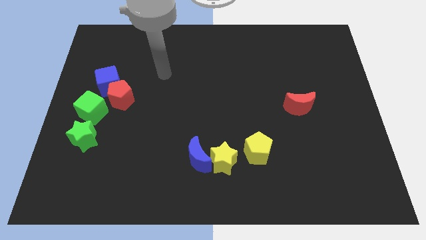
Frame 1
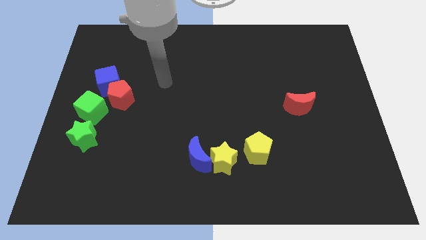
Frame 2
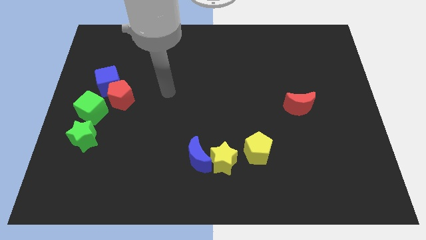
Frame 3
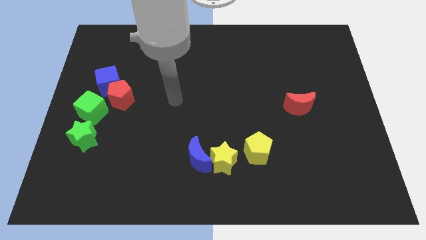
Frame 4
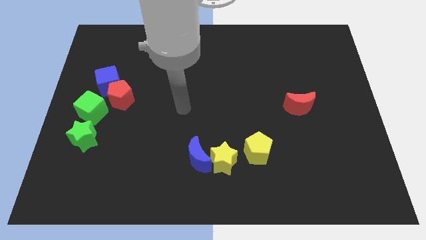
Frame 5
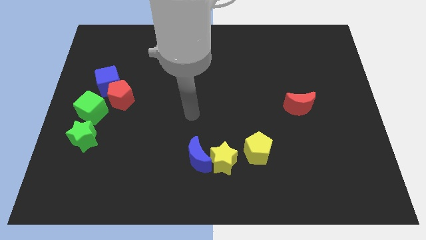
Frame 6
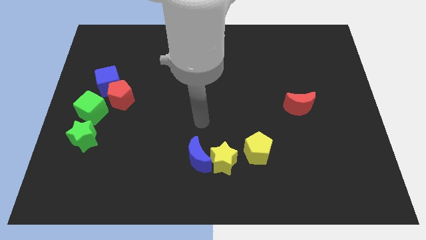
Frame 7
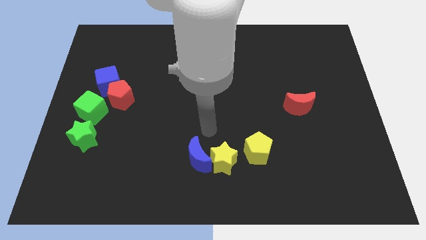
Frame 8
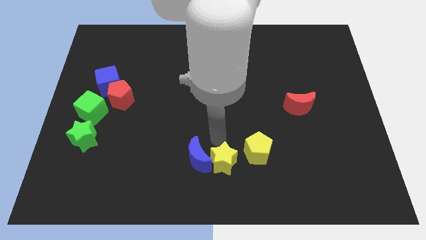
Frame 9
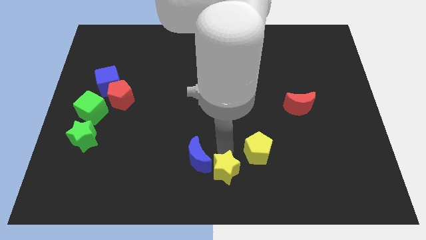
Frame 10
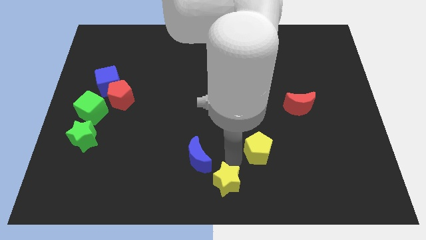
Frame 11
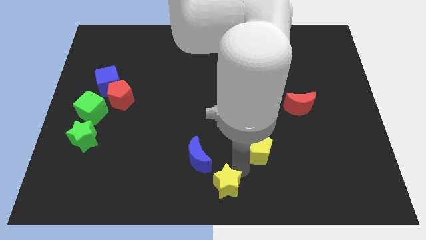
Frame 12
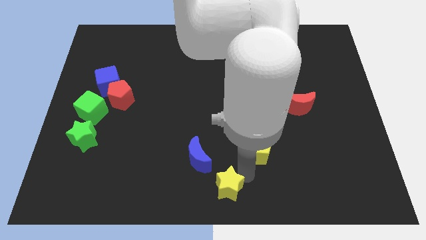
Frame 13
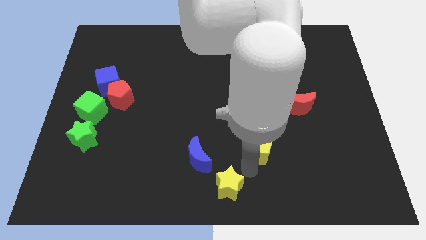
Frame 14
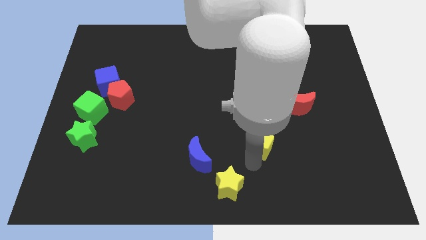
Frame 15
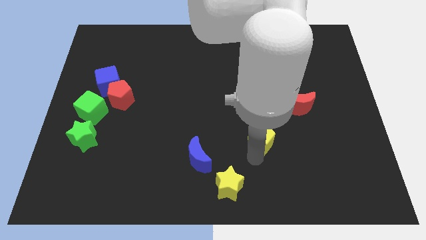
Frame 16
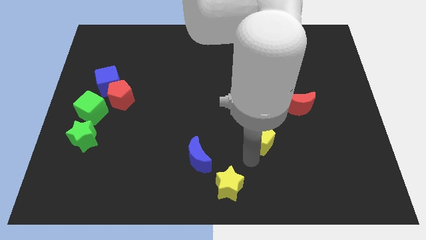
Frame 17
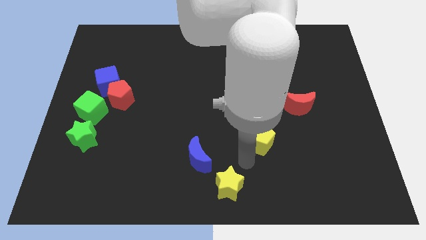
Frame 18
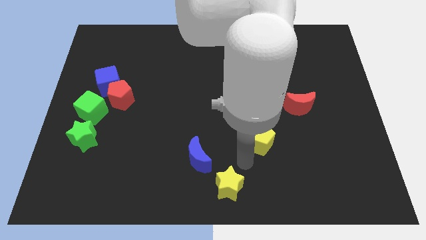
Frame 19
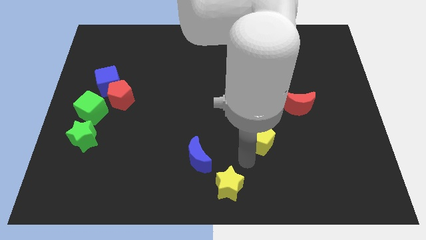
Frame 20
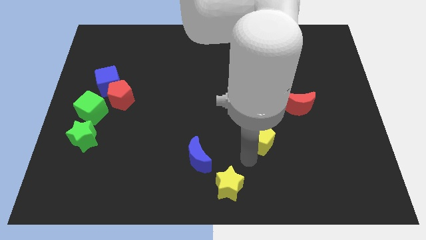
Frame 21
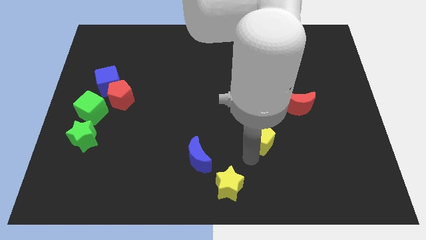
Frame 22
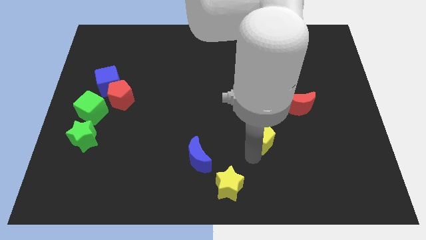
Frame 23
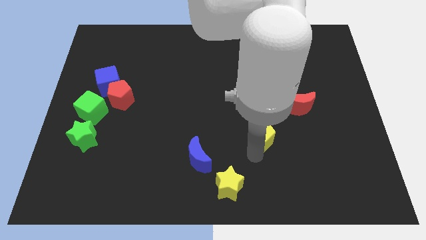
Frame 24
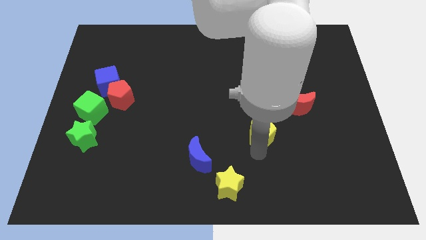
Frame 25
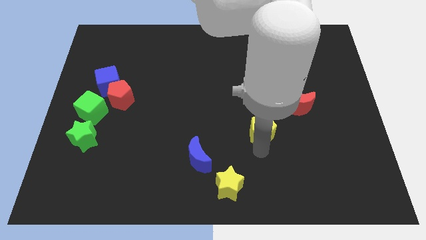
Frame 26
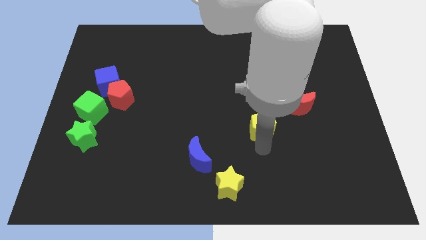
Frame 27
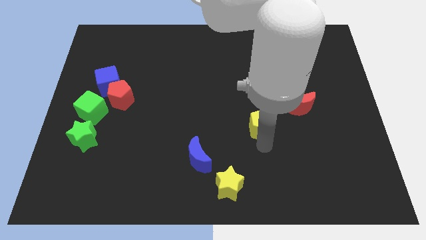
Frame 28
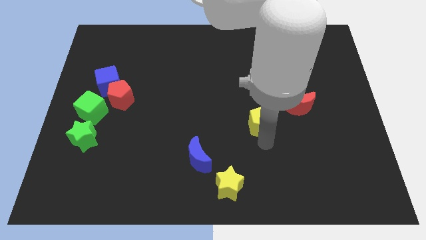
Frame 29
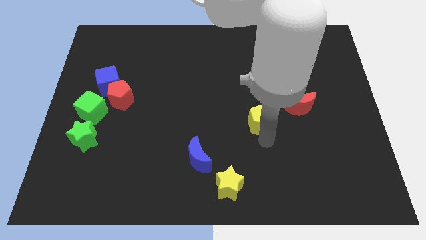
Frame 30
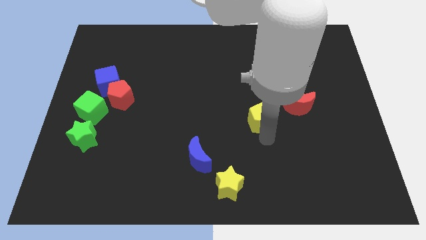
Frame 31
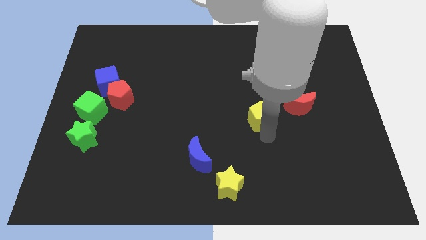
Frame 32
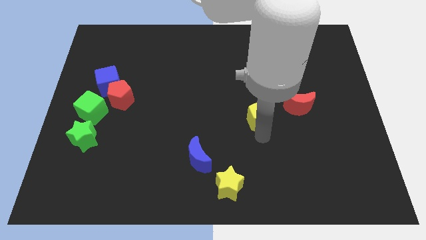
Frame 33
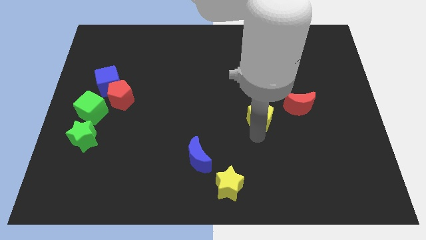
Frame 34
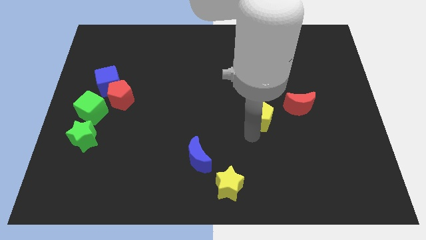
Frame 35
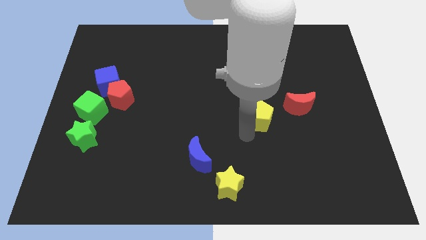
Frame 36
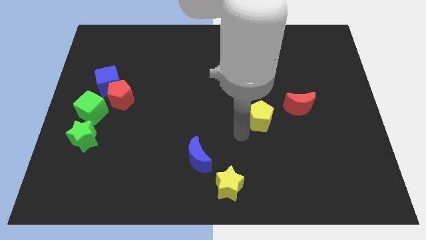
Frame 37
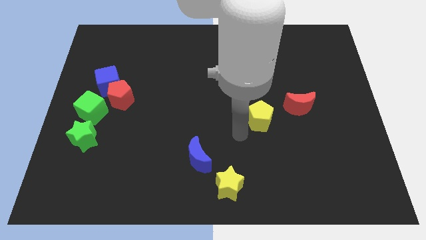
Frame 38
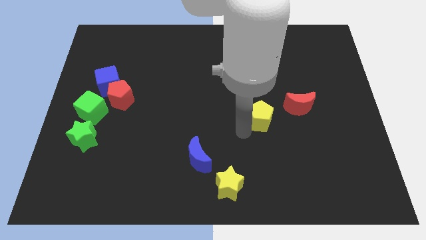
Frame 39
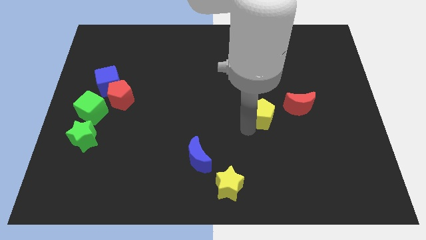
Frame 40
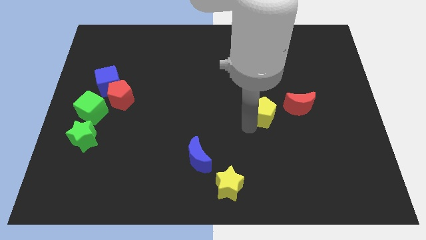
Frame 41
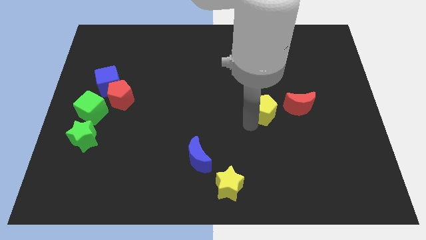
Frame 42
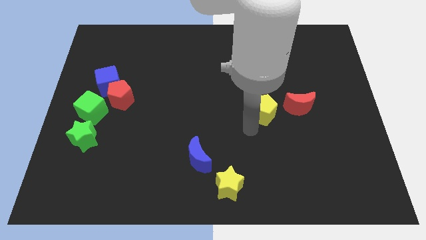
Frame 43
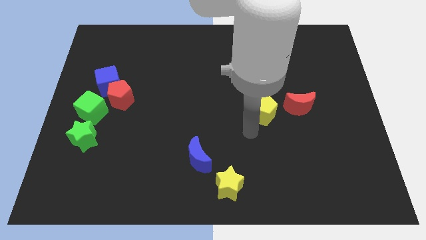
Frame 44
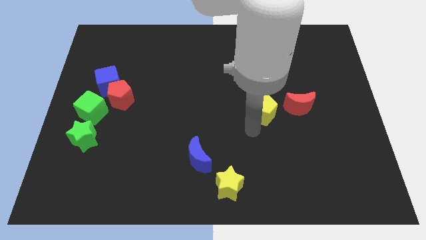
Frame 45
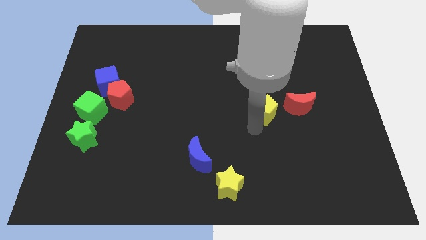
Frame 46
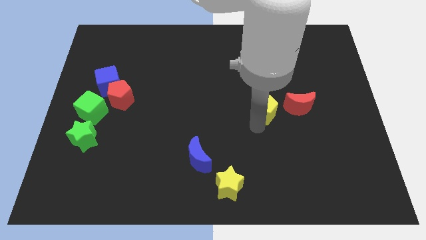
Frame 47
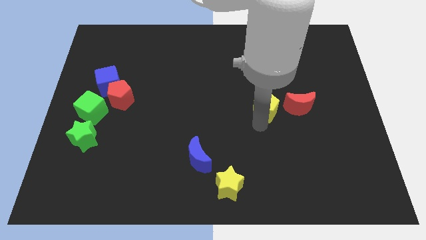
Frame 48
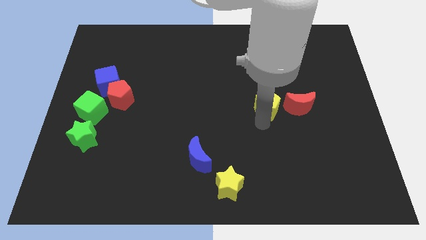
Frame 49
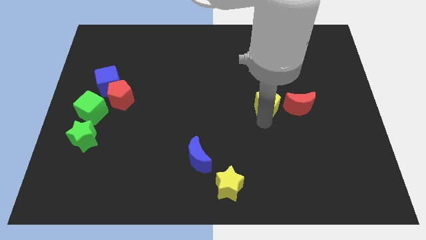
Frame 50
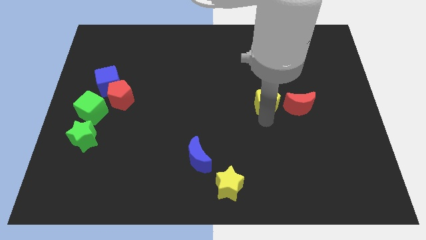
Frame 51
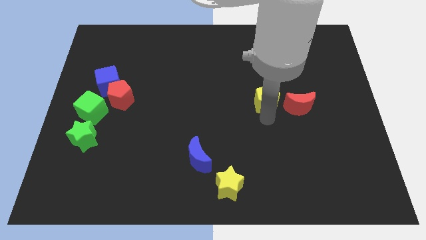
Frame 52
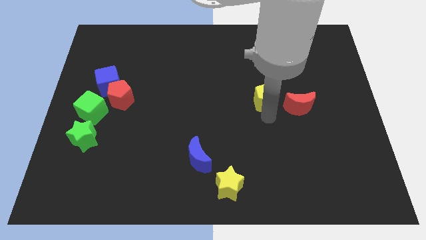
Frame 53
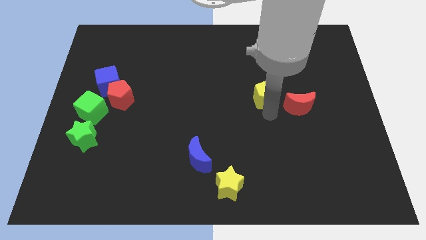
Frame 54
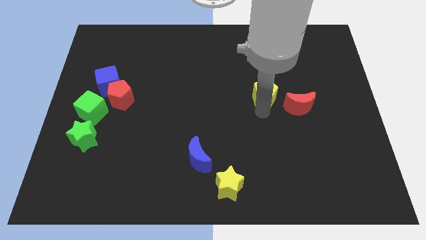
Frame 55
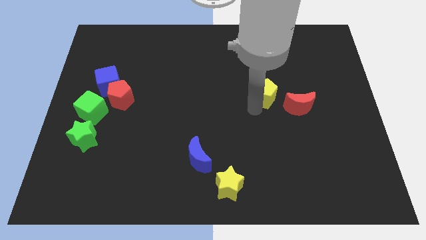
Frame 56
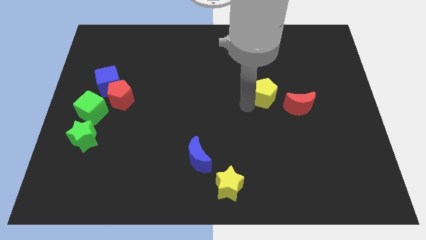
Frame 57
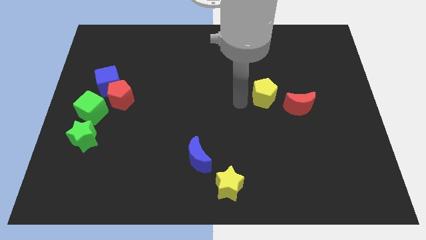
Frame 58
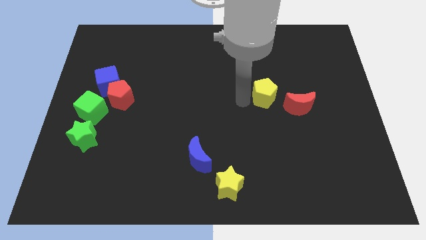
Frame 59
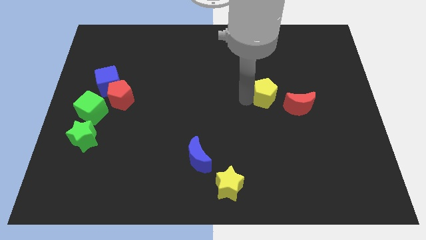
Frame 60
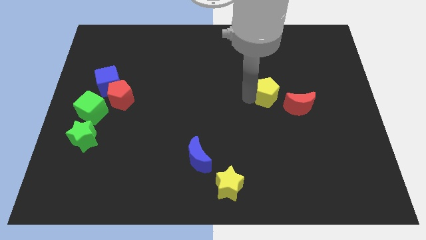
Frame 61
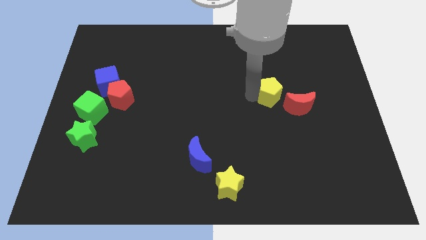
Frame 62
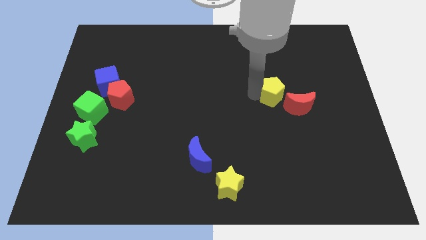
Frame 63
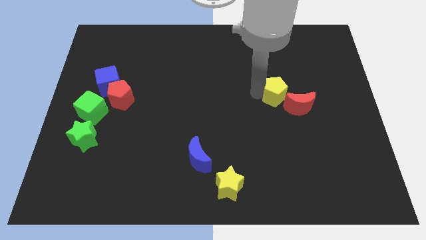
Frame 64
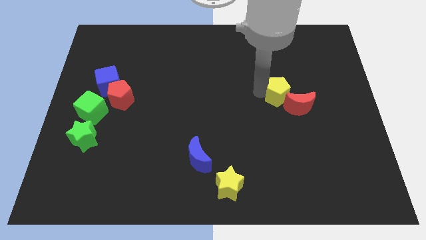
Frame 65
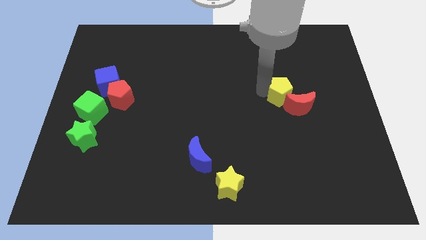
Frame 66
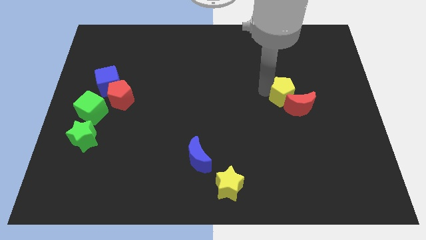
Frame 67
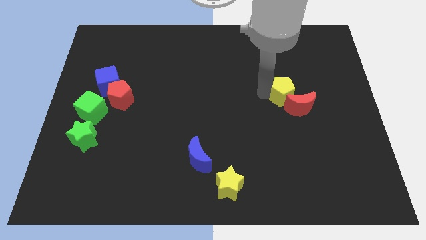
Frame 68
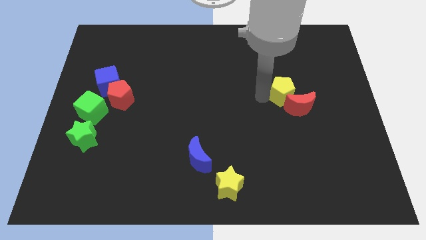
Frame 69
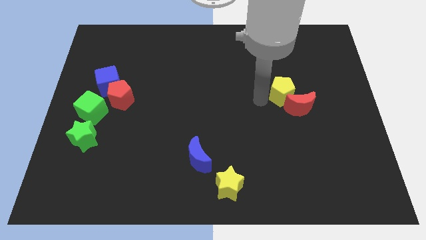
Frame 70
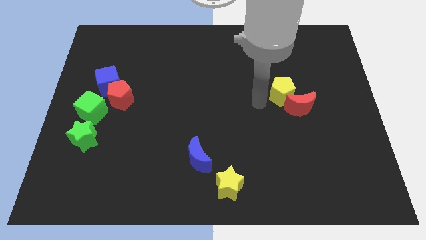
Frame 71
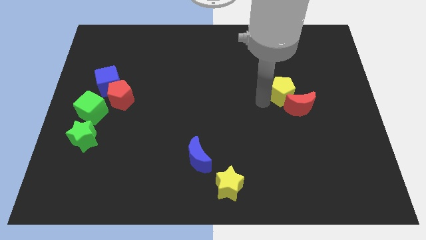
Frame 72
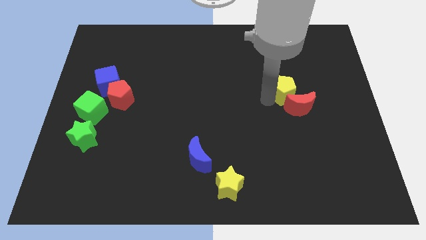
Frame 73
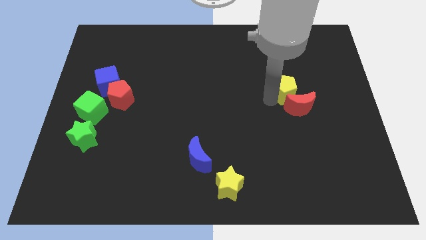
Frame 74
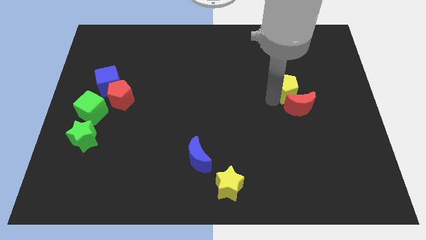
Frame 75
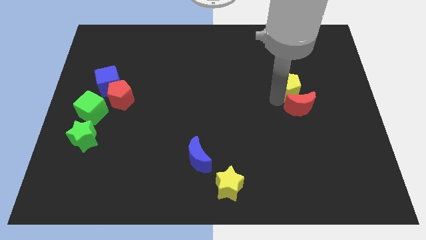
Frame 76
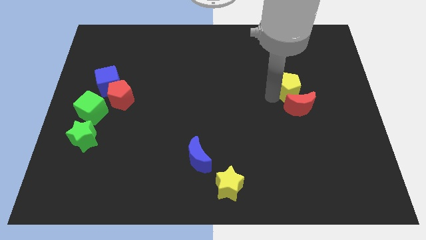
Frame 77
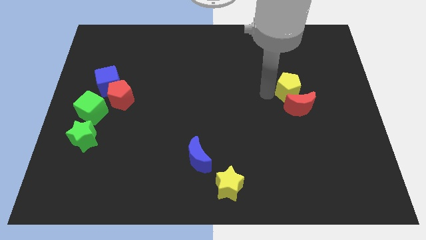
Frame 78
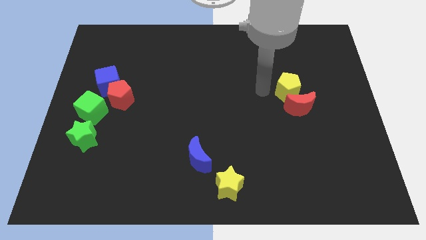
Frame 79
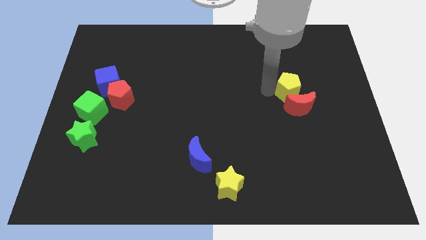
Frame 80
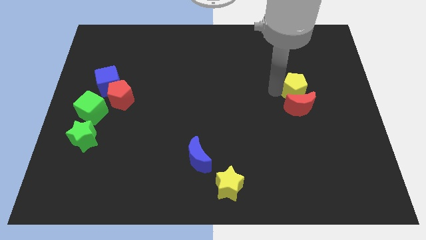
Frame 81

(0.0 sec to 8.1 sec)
slide the yellow pentagon to the top right of the red moon
